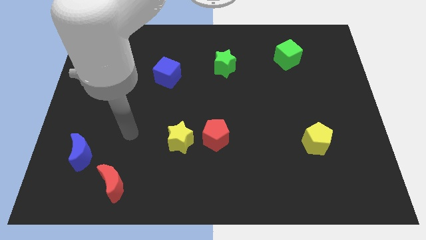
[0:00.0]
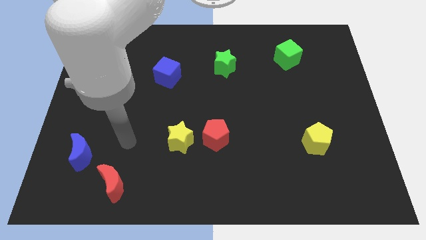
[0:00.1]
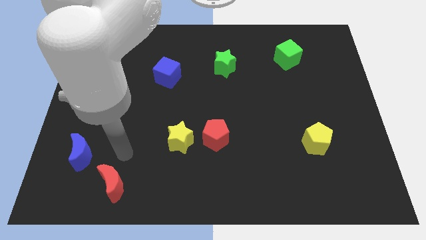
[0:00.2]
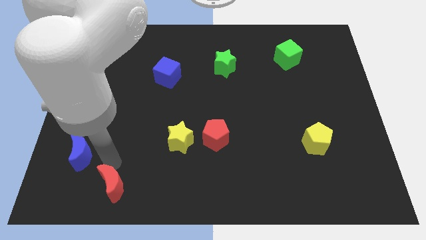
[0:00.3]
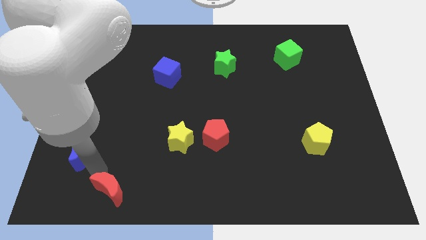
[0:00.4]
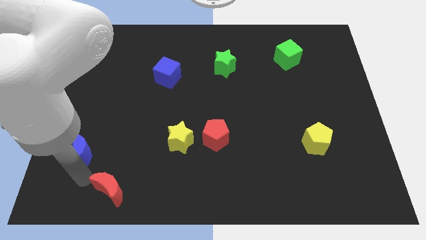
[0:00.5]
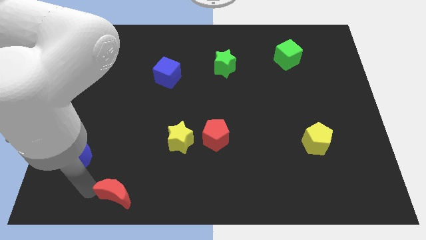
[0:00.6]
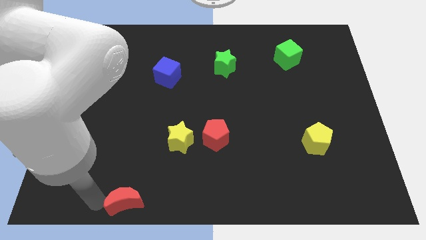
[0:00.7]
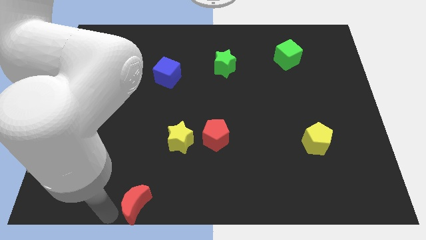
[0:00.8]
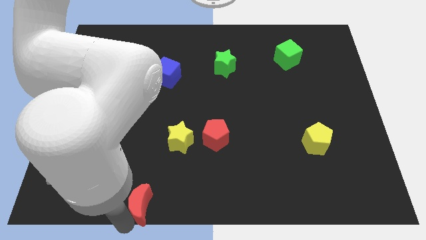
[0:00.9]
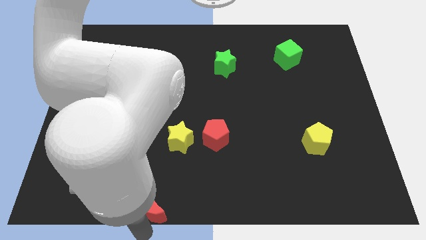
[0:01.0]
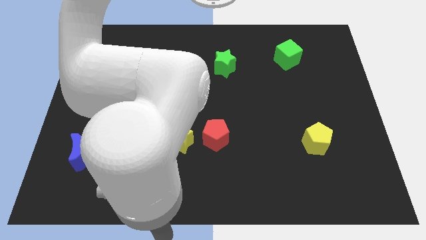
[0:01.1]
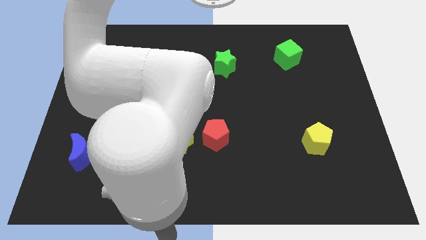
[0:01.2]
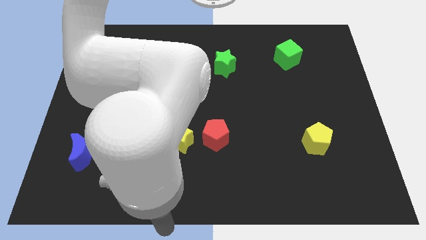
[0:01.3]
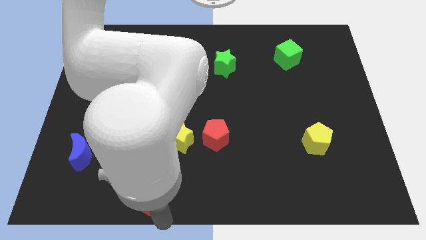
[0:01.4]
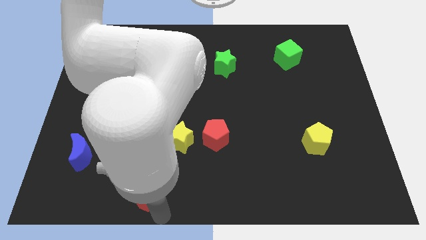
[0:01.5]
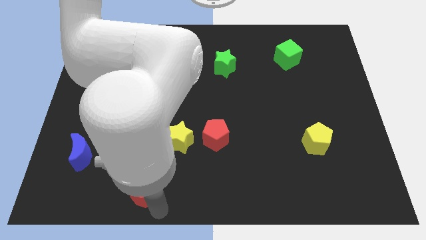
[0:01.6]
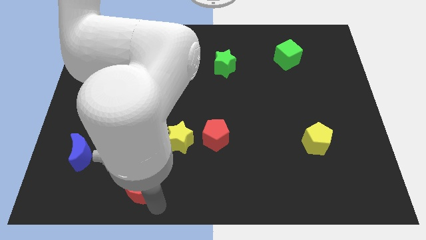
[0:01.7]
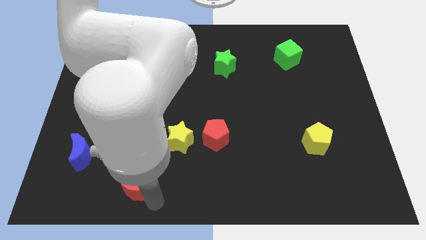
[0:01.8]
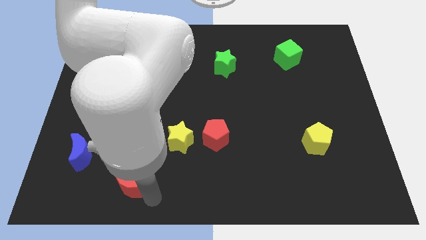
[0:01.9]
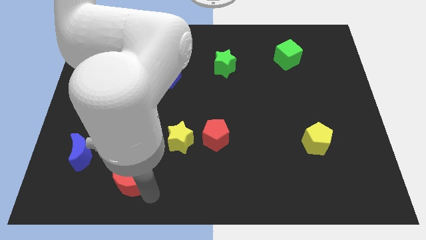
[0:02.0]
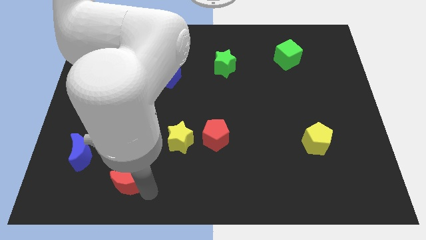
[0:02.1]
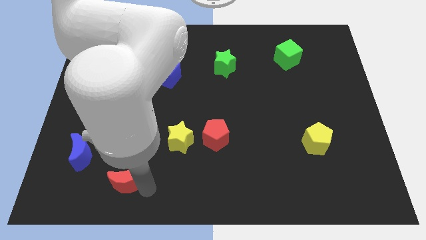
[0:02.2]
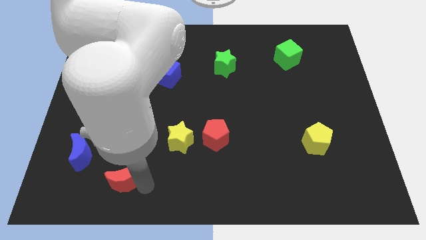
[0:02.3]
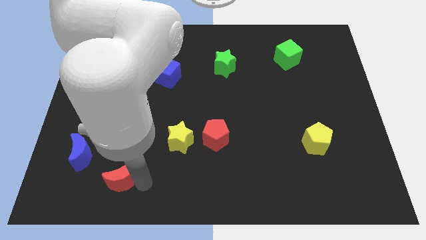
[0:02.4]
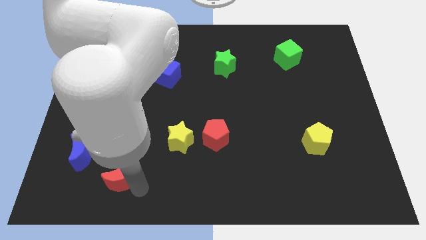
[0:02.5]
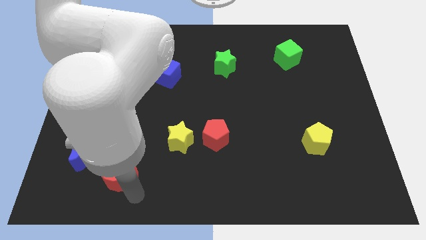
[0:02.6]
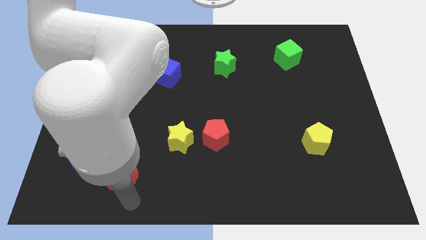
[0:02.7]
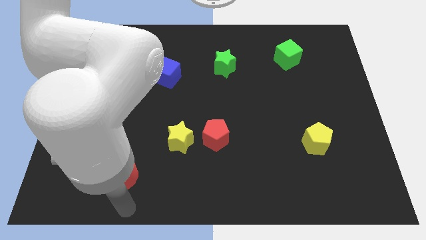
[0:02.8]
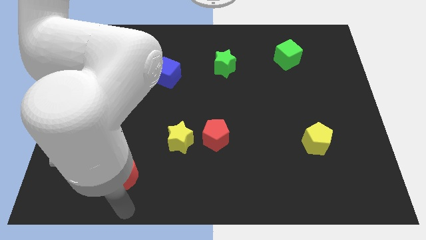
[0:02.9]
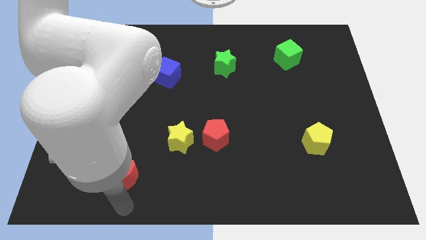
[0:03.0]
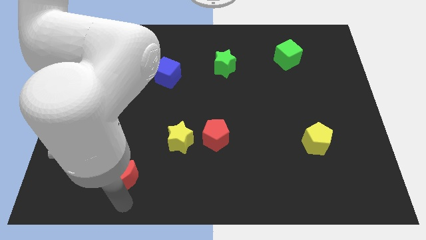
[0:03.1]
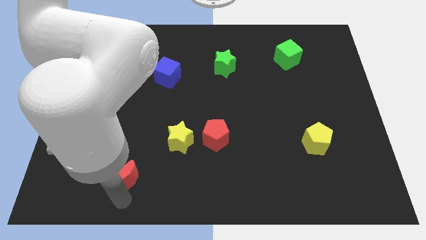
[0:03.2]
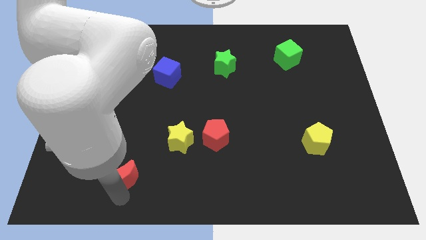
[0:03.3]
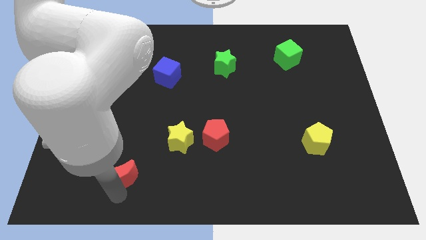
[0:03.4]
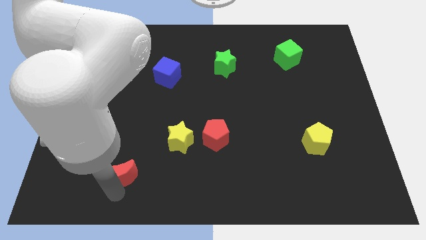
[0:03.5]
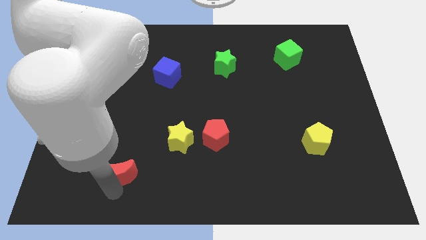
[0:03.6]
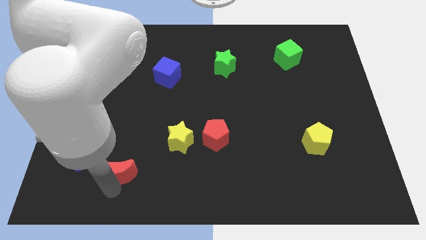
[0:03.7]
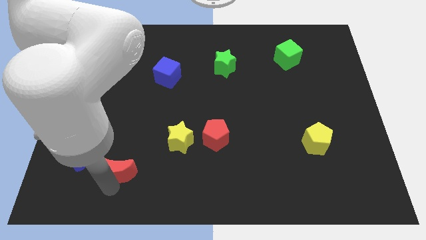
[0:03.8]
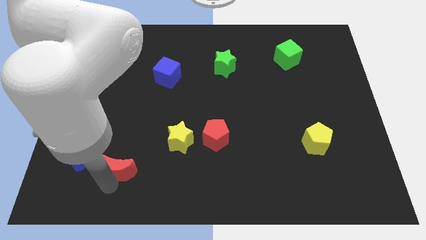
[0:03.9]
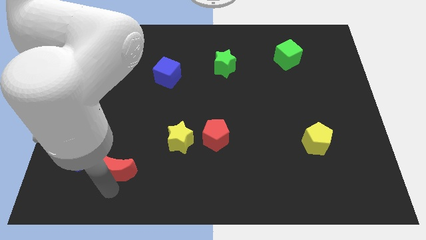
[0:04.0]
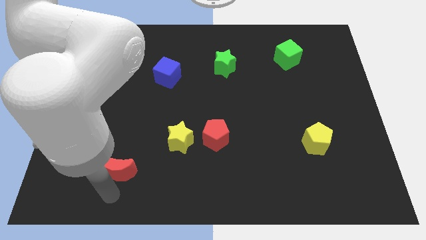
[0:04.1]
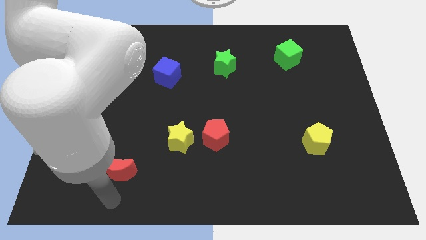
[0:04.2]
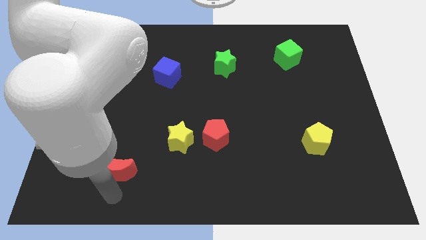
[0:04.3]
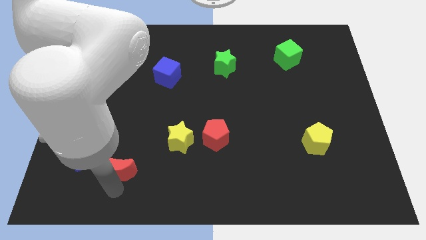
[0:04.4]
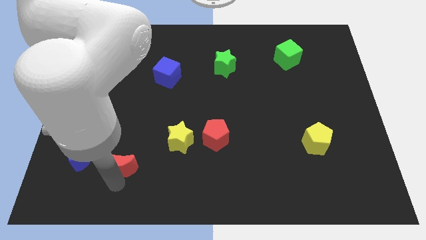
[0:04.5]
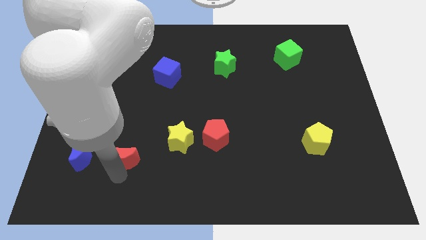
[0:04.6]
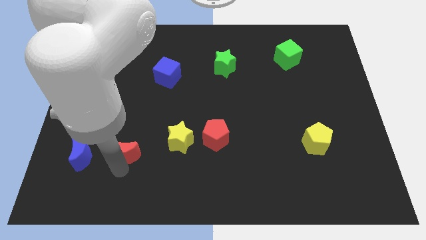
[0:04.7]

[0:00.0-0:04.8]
push the red moon up somewhat

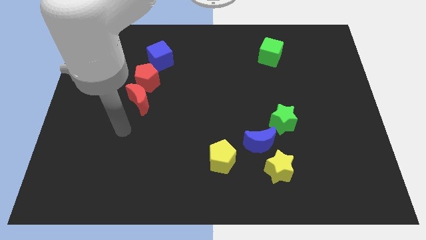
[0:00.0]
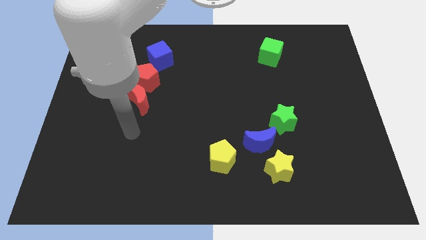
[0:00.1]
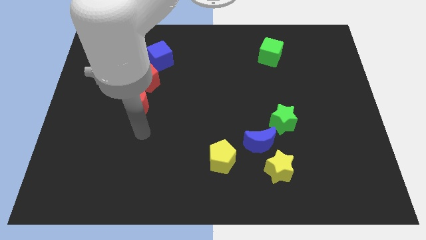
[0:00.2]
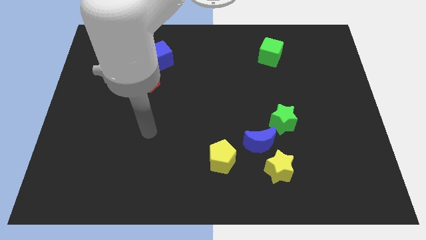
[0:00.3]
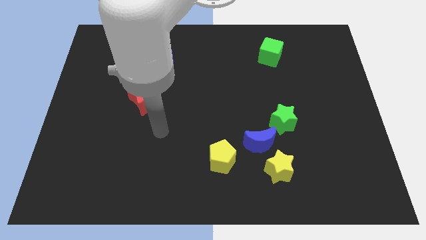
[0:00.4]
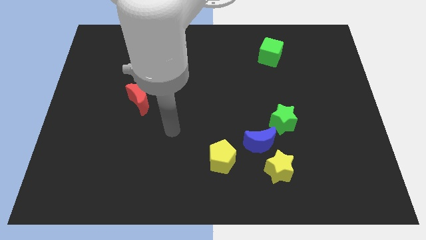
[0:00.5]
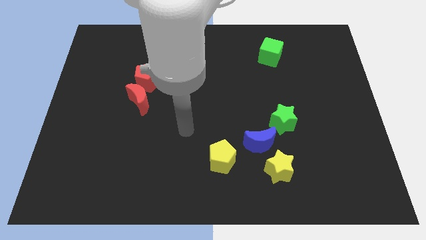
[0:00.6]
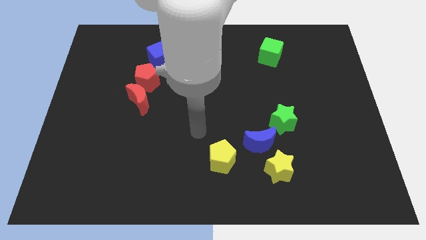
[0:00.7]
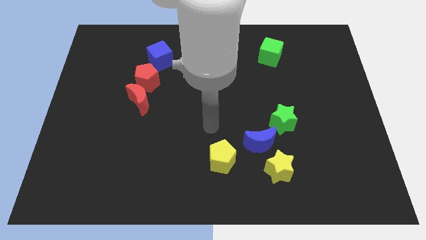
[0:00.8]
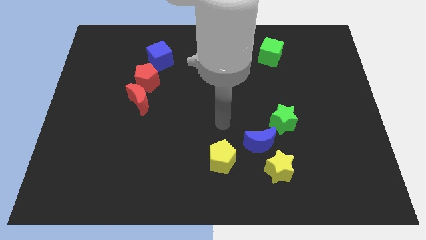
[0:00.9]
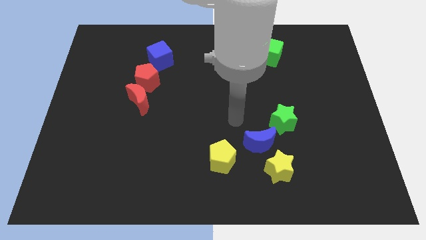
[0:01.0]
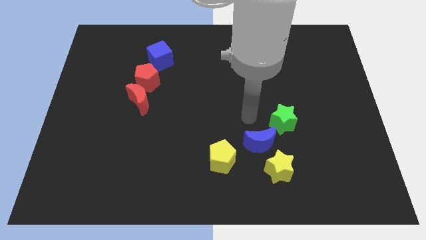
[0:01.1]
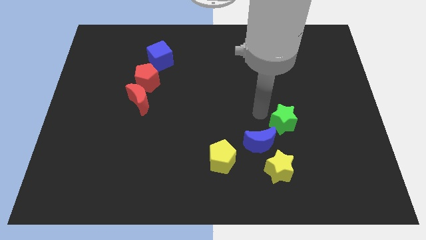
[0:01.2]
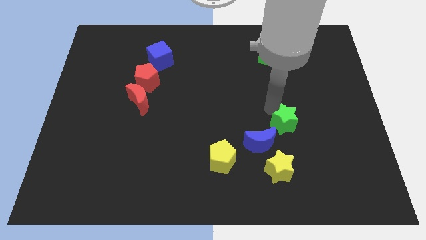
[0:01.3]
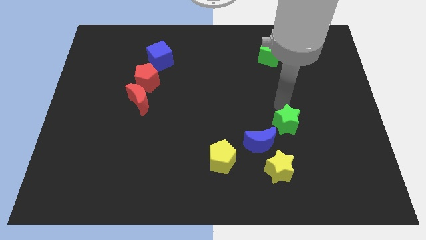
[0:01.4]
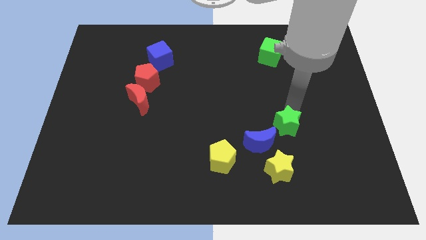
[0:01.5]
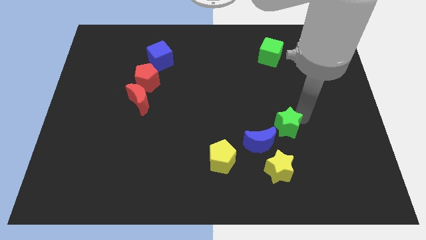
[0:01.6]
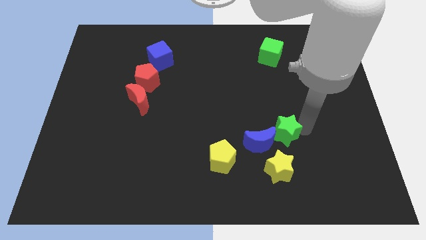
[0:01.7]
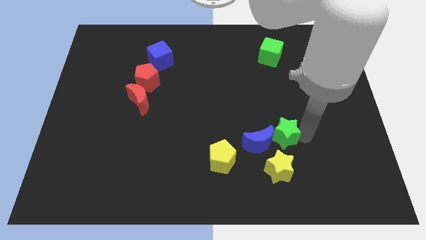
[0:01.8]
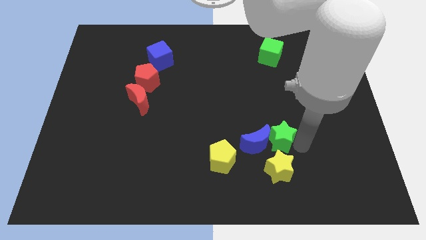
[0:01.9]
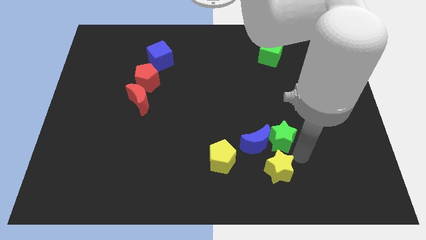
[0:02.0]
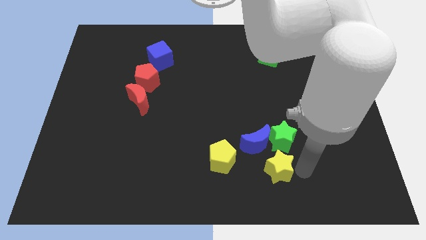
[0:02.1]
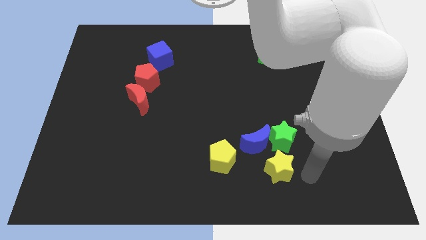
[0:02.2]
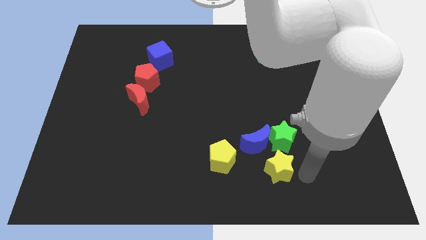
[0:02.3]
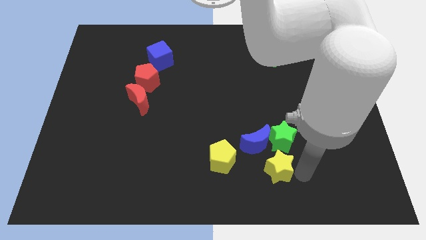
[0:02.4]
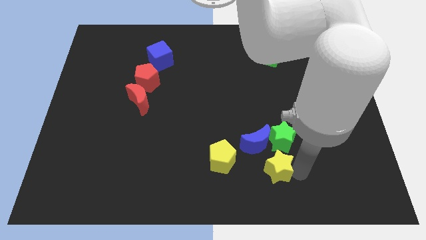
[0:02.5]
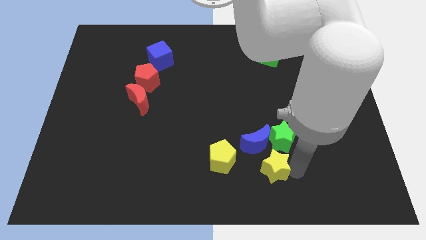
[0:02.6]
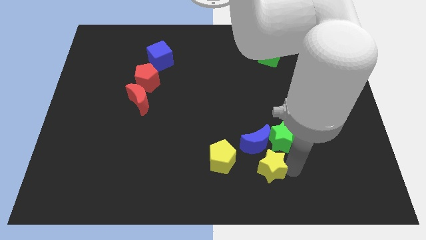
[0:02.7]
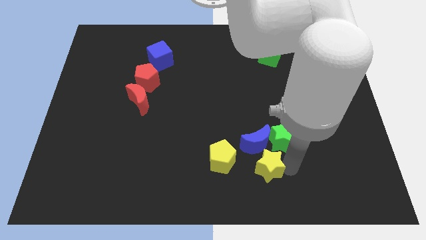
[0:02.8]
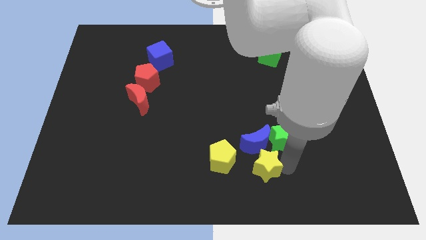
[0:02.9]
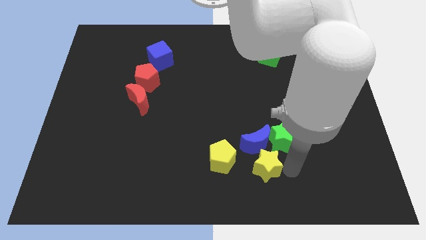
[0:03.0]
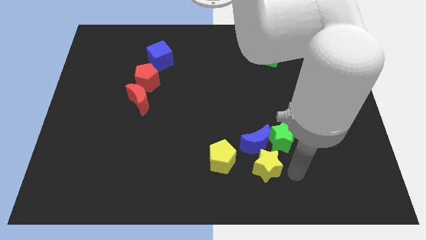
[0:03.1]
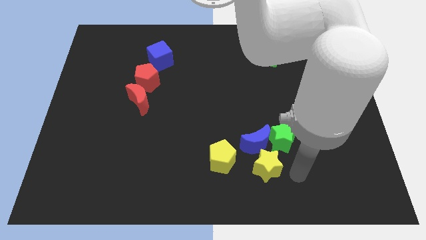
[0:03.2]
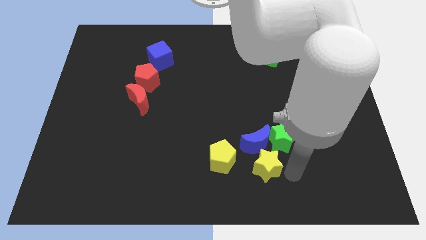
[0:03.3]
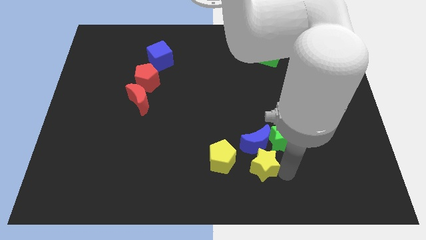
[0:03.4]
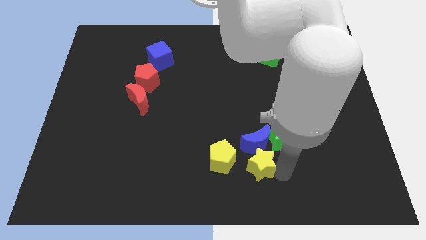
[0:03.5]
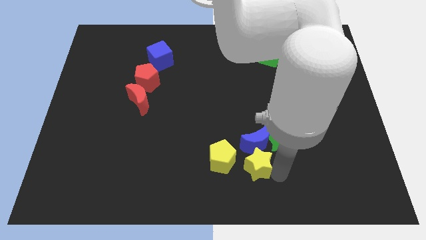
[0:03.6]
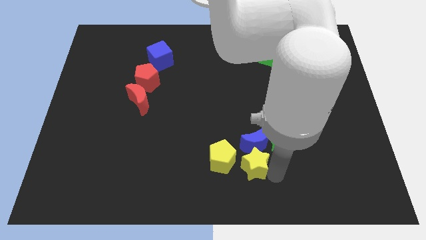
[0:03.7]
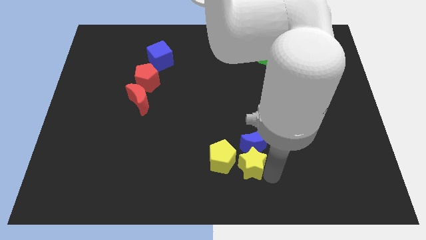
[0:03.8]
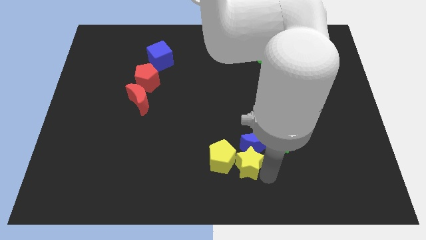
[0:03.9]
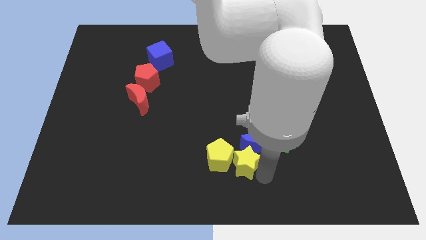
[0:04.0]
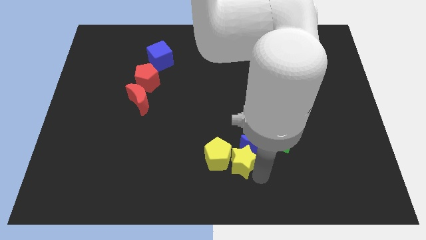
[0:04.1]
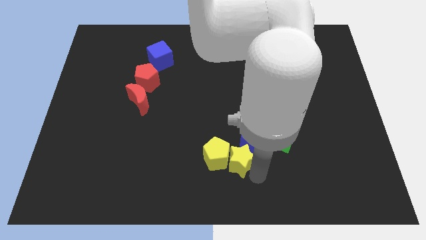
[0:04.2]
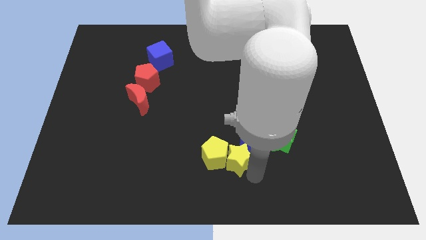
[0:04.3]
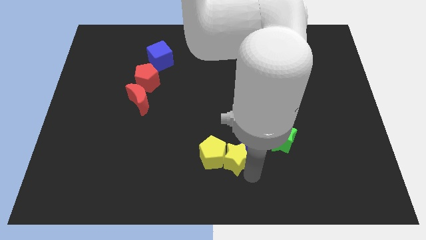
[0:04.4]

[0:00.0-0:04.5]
push the yellow star upwards and then left a little
